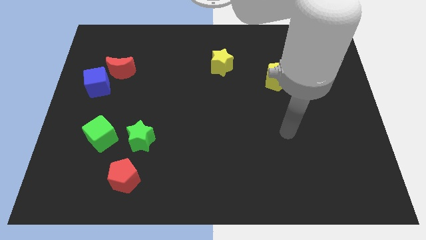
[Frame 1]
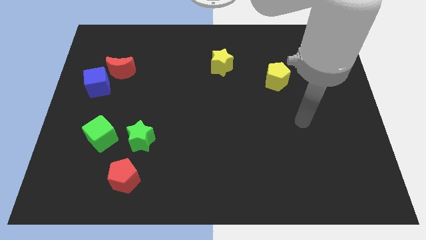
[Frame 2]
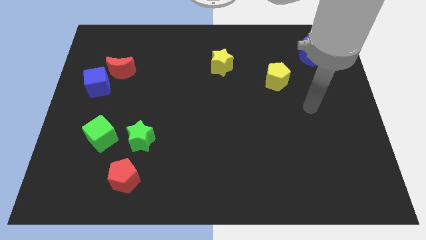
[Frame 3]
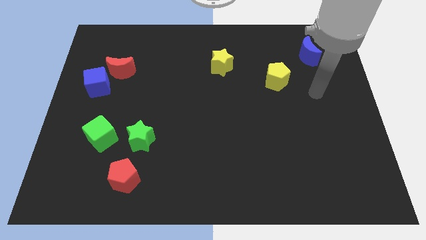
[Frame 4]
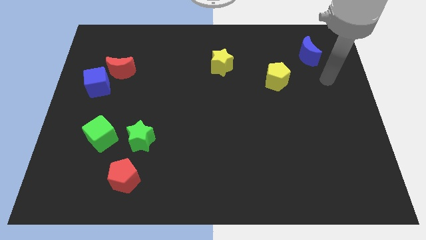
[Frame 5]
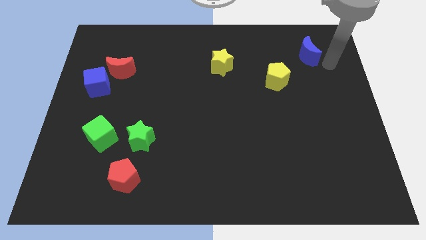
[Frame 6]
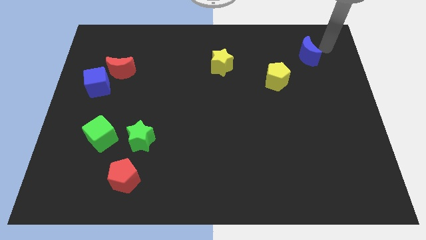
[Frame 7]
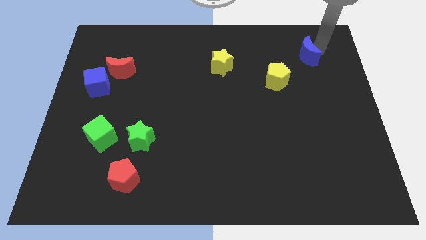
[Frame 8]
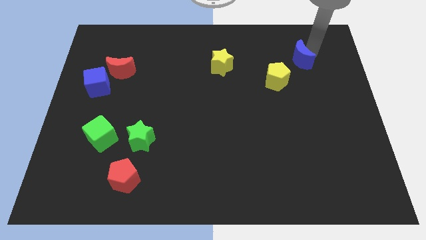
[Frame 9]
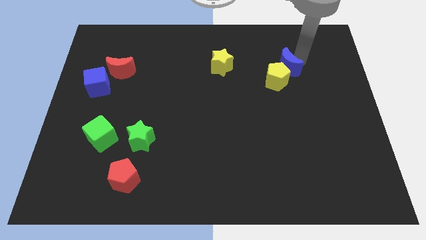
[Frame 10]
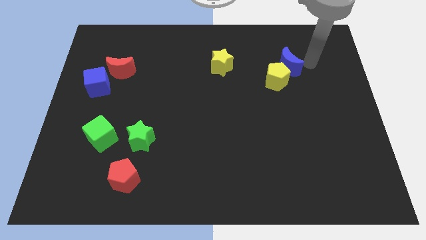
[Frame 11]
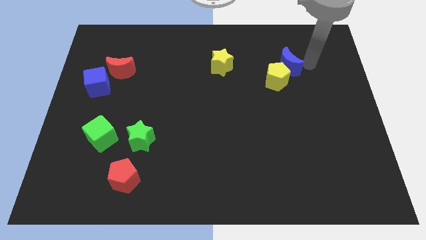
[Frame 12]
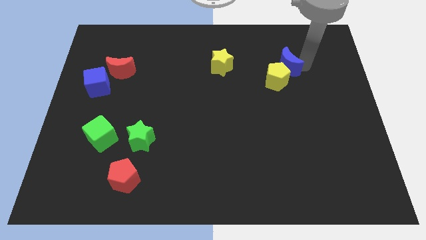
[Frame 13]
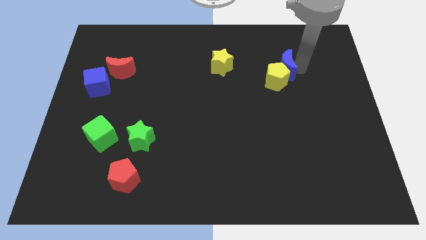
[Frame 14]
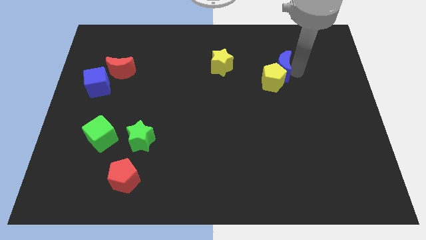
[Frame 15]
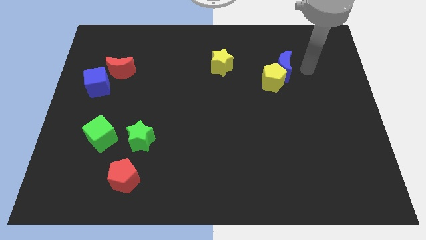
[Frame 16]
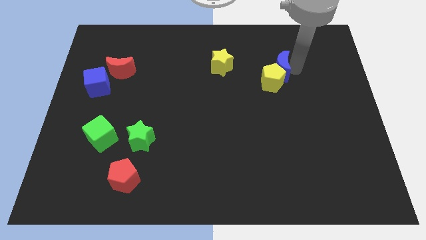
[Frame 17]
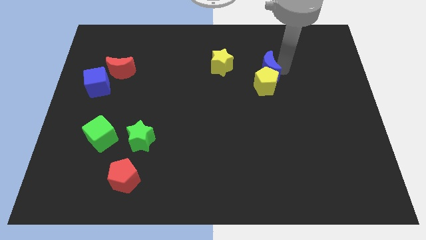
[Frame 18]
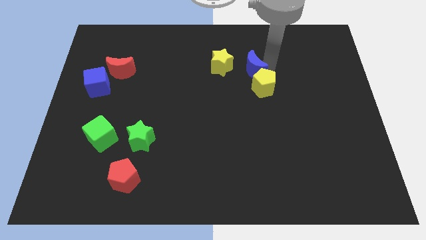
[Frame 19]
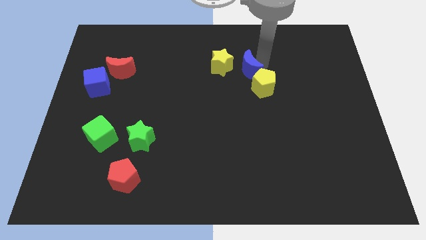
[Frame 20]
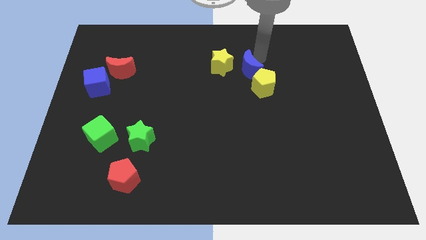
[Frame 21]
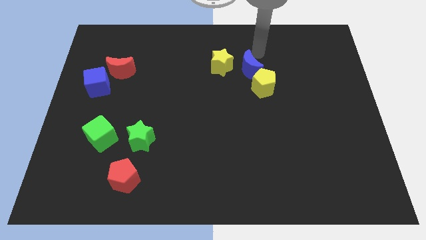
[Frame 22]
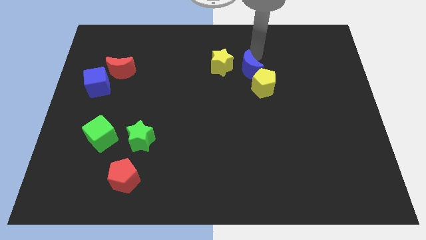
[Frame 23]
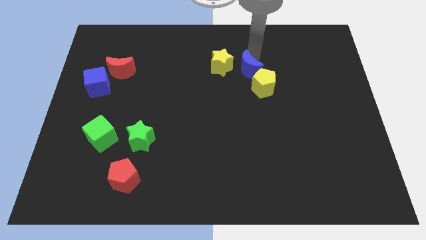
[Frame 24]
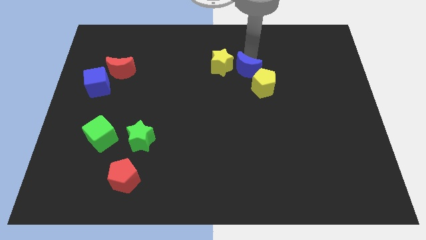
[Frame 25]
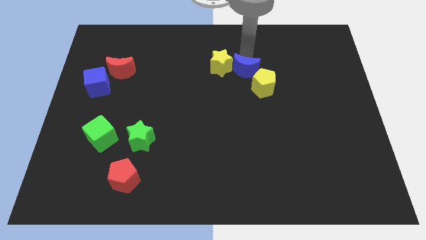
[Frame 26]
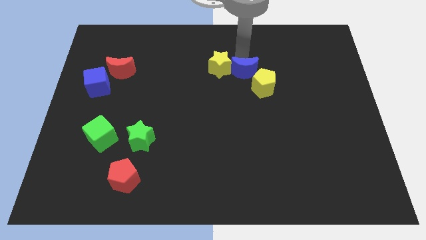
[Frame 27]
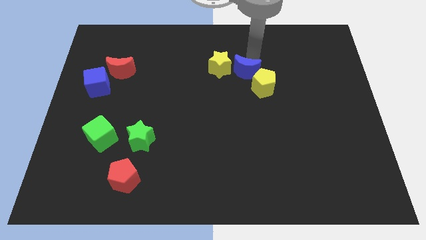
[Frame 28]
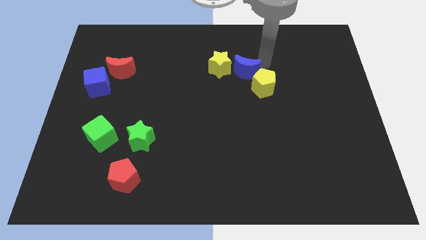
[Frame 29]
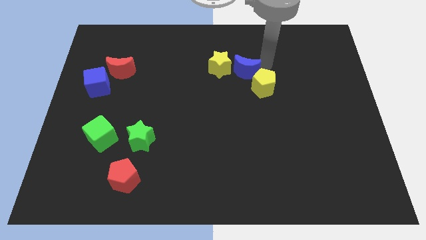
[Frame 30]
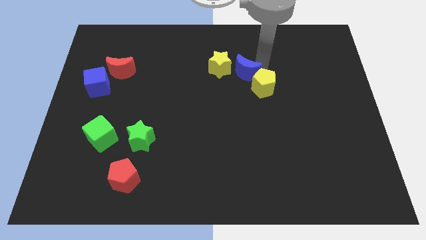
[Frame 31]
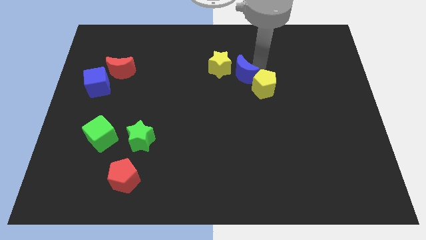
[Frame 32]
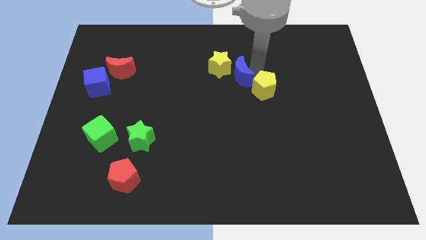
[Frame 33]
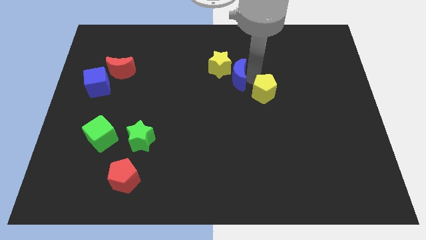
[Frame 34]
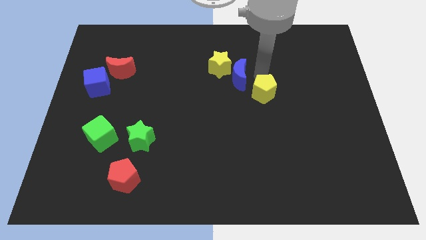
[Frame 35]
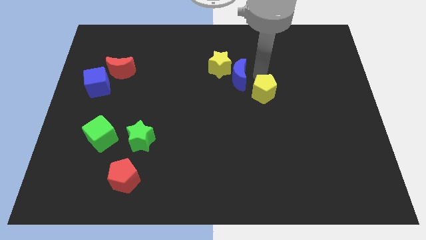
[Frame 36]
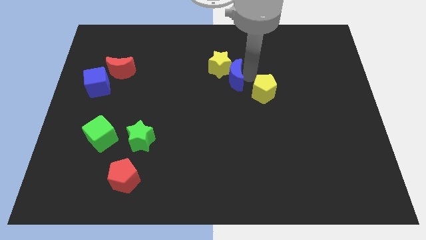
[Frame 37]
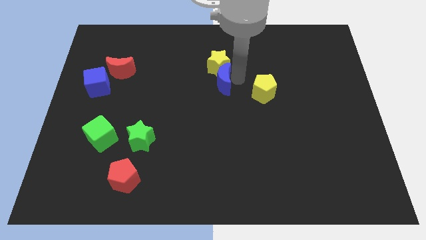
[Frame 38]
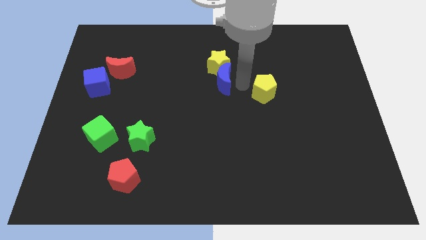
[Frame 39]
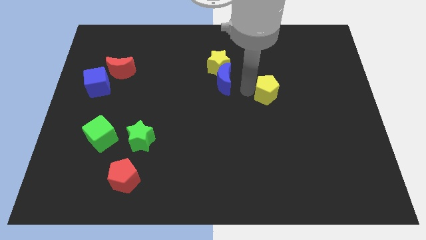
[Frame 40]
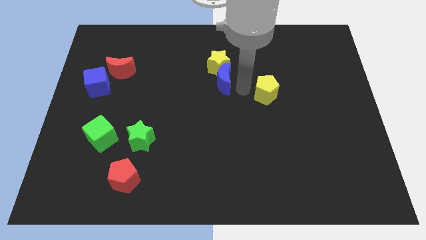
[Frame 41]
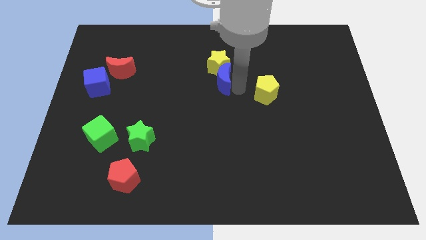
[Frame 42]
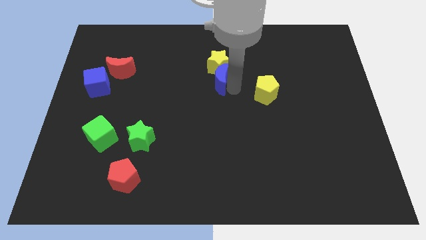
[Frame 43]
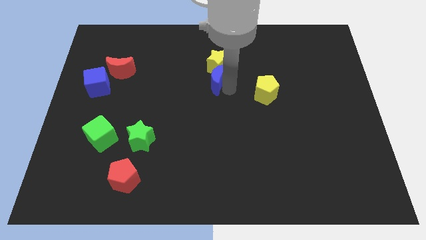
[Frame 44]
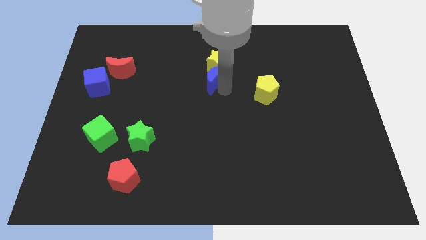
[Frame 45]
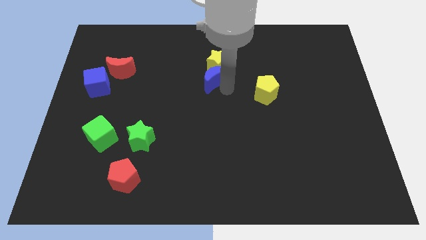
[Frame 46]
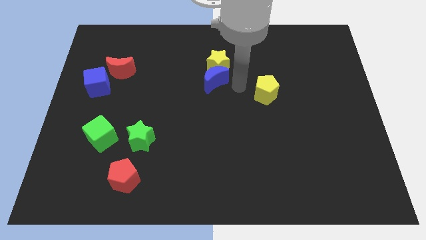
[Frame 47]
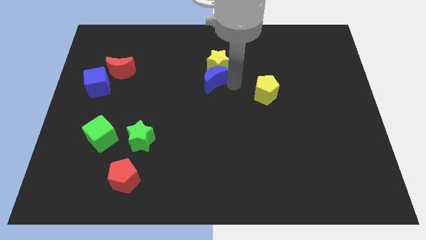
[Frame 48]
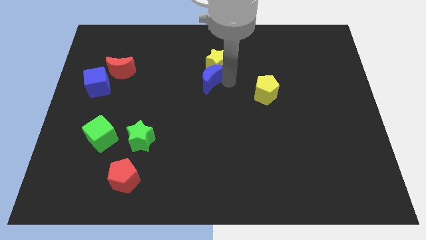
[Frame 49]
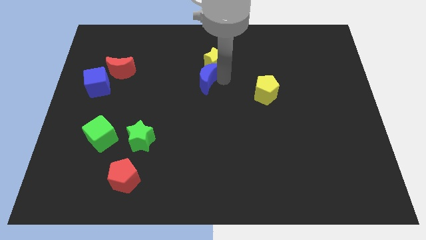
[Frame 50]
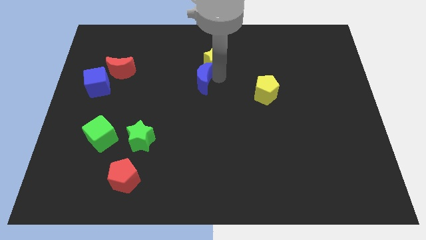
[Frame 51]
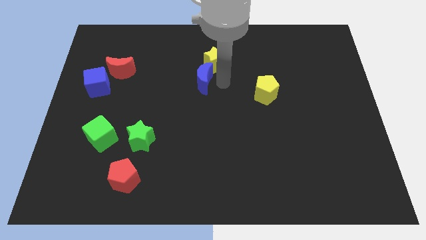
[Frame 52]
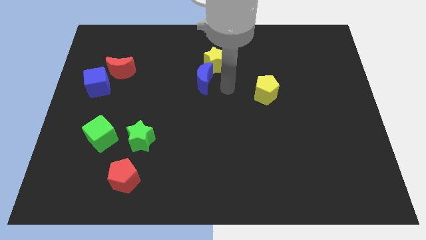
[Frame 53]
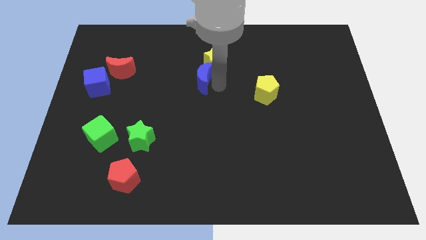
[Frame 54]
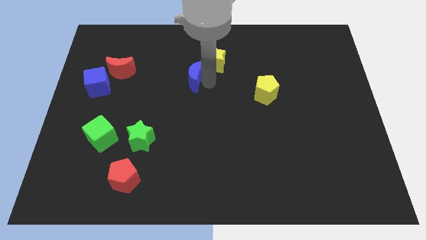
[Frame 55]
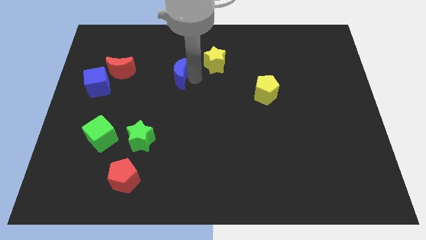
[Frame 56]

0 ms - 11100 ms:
slide the blue moon right of the red moon

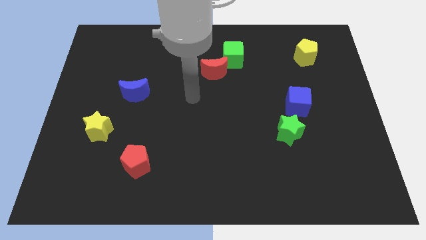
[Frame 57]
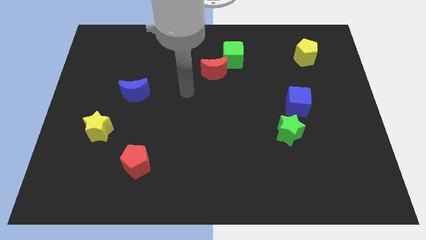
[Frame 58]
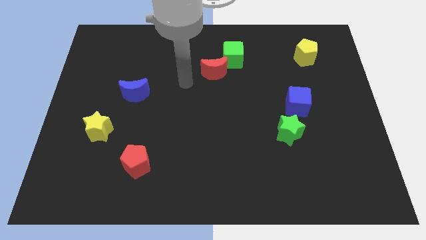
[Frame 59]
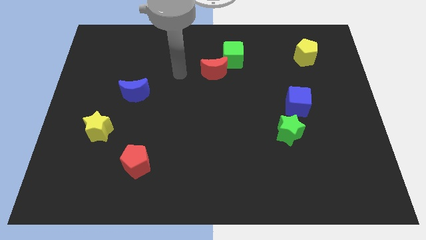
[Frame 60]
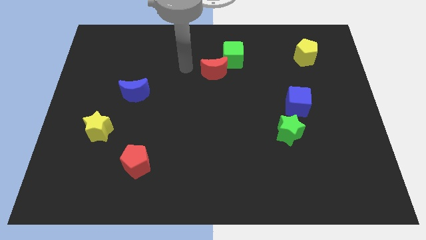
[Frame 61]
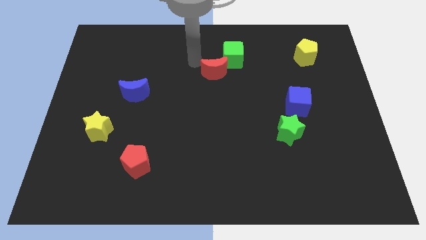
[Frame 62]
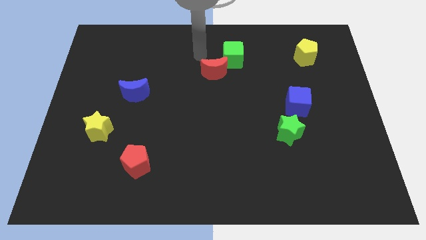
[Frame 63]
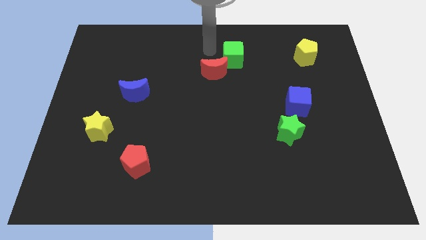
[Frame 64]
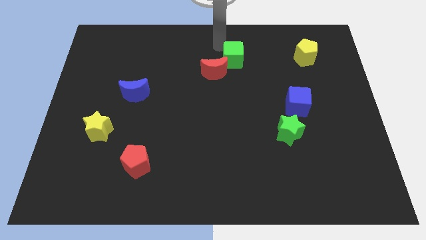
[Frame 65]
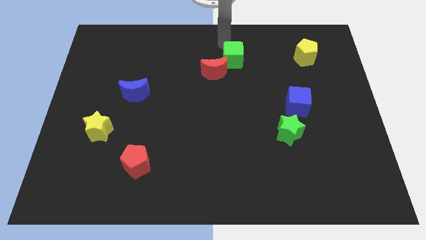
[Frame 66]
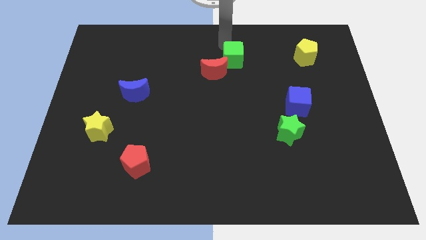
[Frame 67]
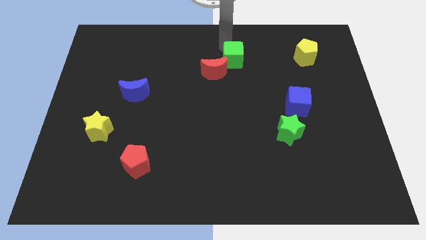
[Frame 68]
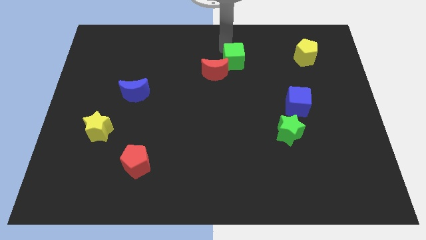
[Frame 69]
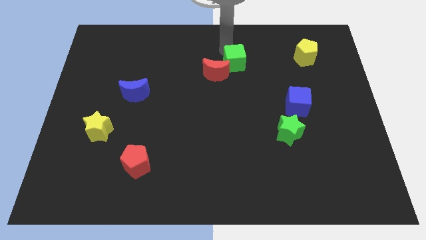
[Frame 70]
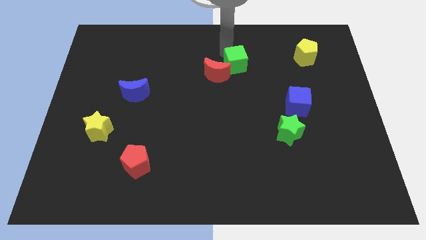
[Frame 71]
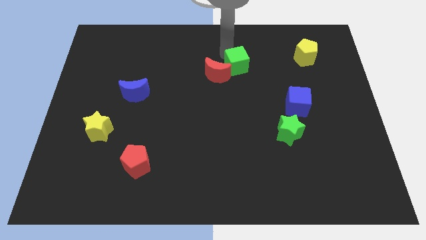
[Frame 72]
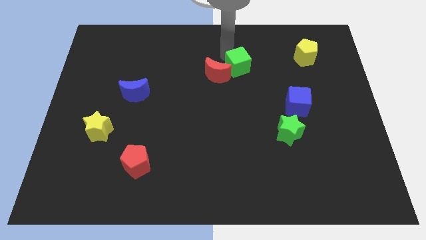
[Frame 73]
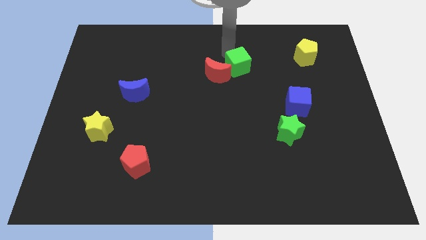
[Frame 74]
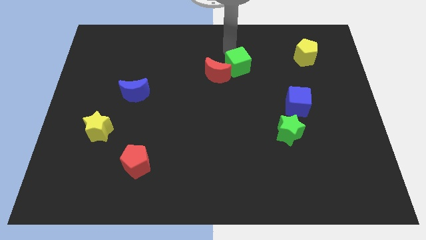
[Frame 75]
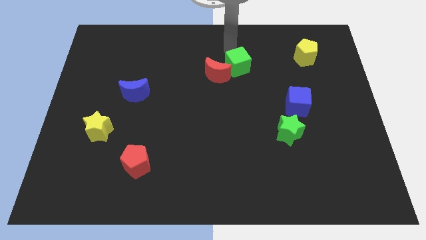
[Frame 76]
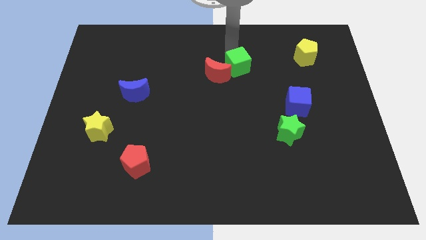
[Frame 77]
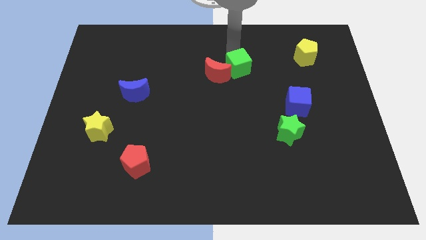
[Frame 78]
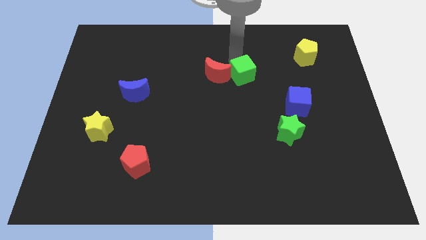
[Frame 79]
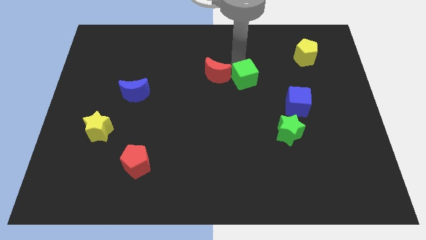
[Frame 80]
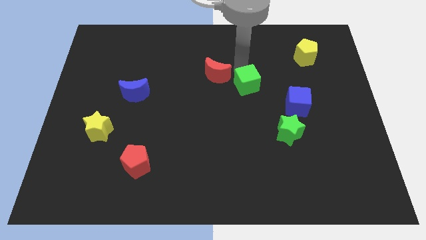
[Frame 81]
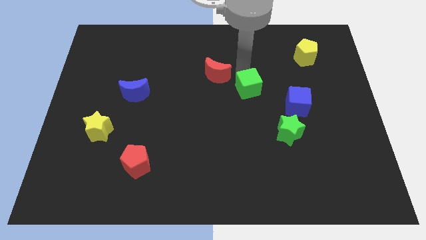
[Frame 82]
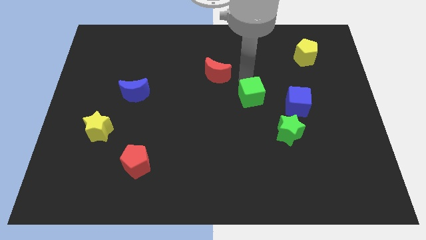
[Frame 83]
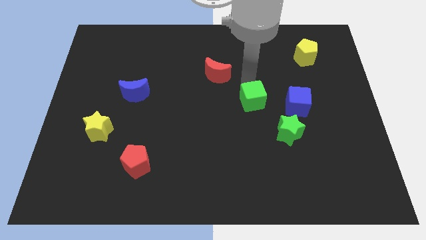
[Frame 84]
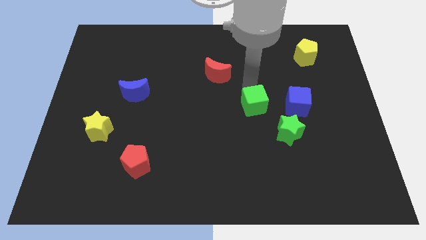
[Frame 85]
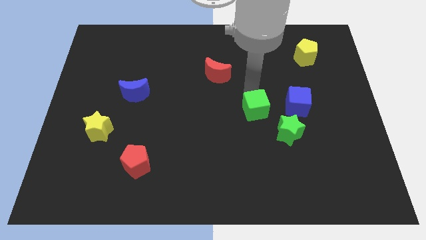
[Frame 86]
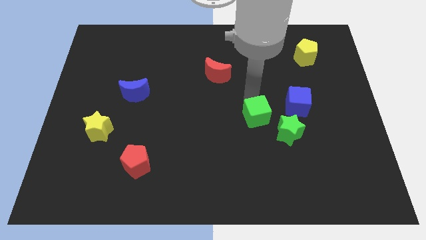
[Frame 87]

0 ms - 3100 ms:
slide the green cube to the bottom left of the blue cube
